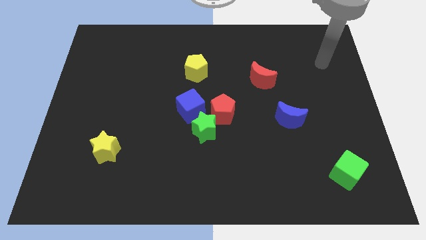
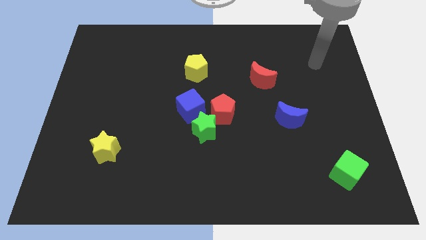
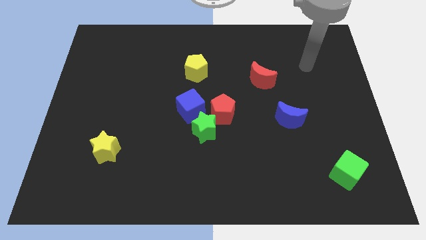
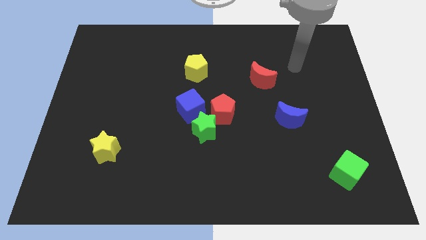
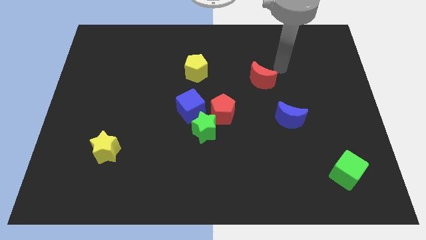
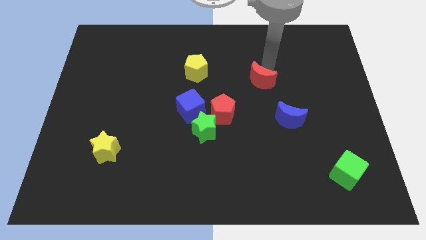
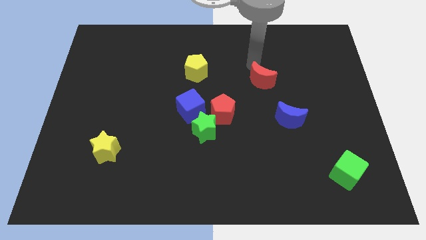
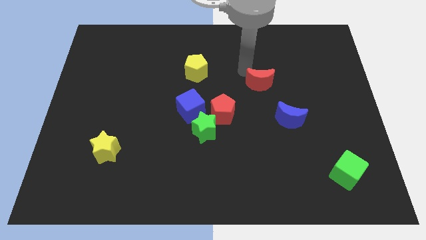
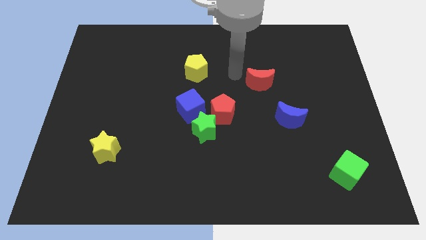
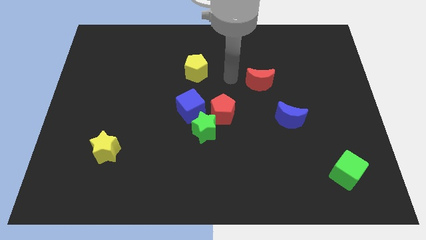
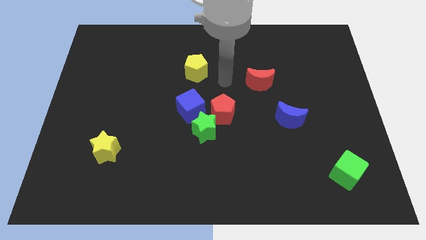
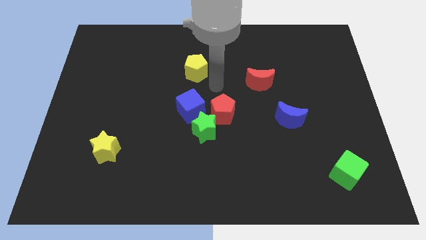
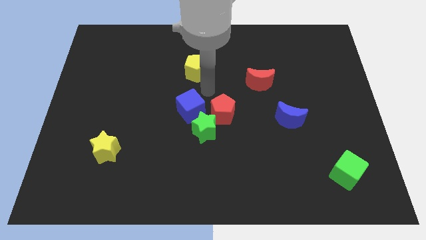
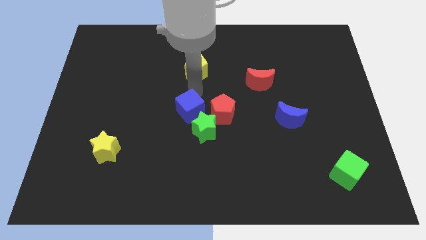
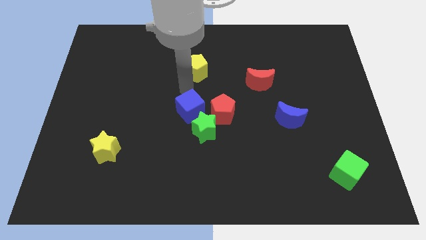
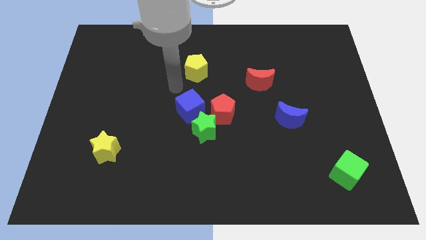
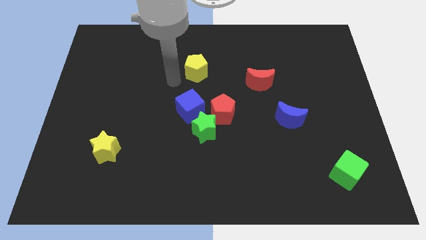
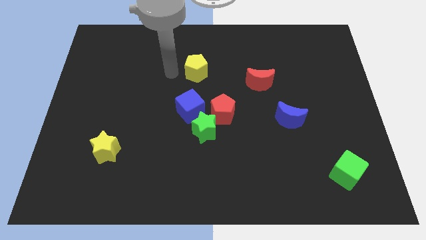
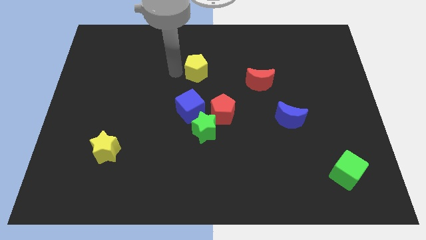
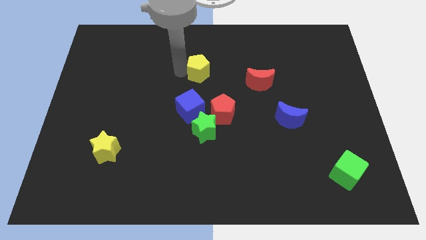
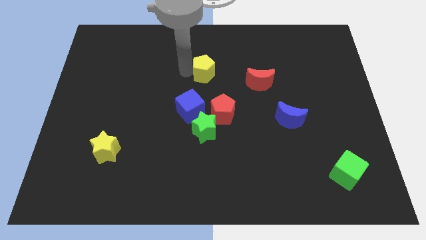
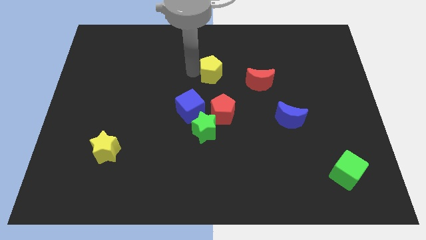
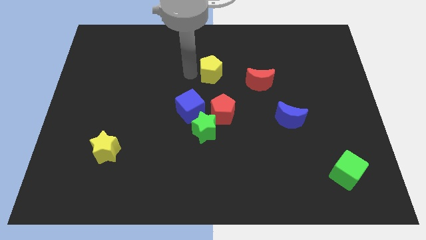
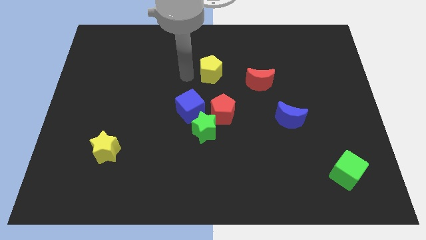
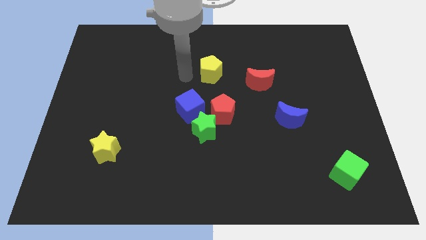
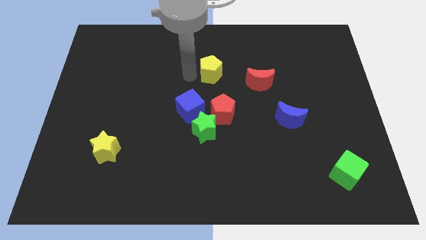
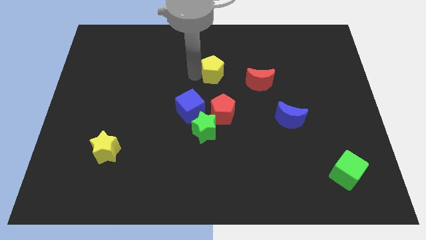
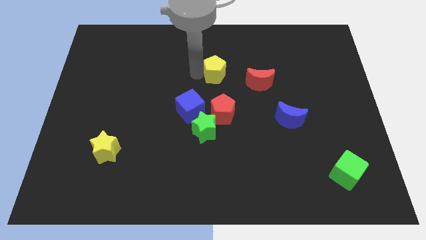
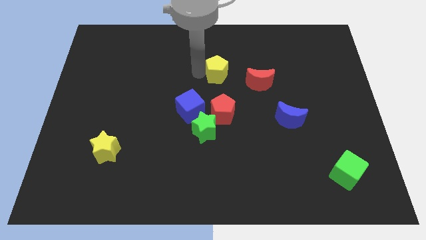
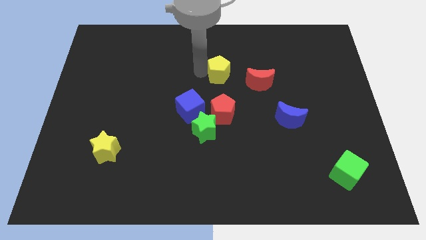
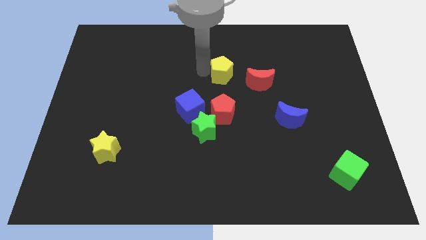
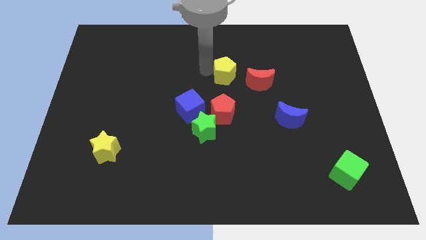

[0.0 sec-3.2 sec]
move the yellow pentagon to the right a little bit

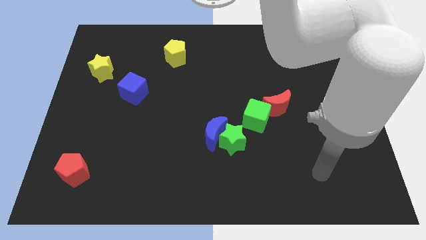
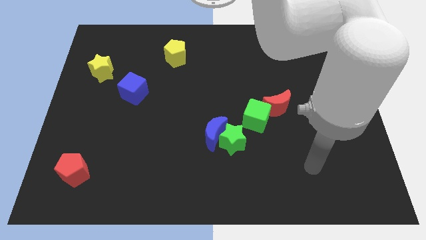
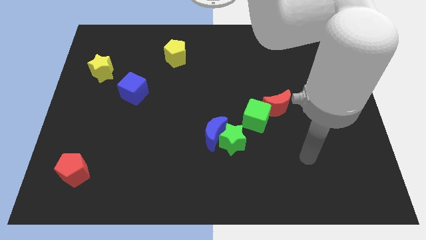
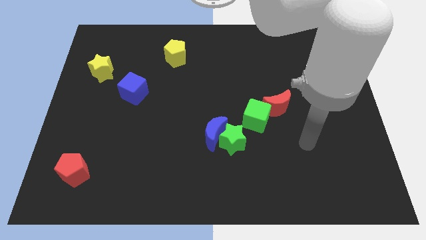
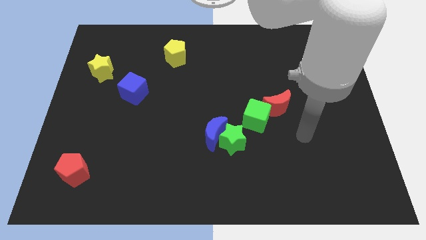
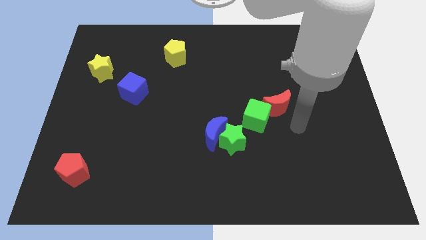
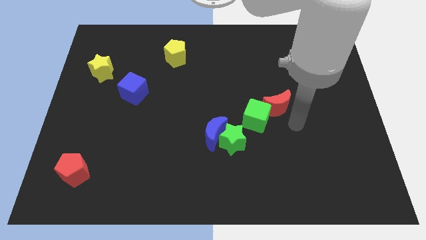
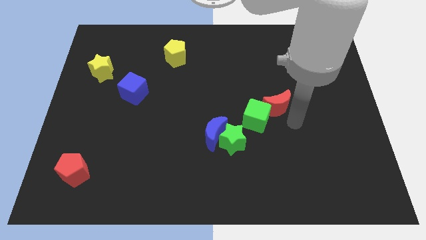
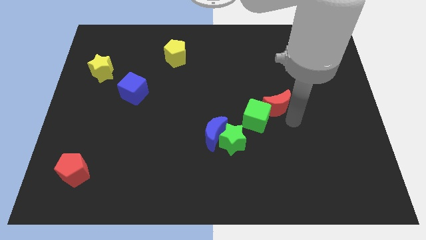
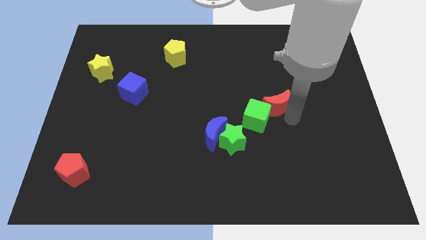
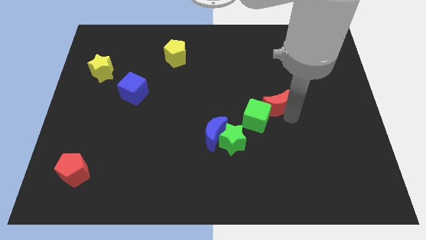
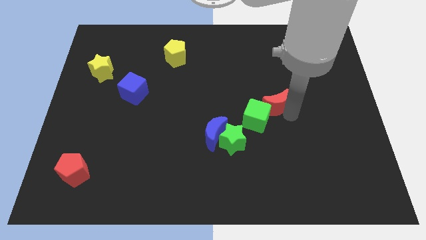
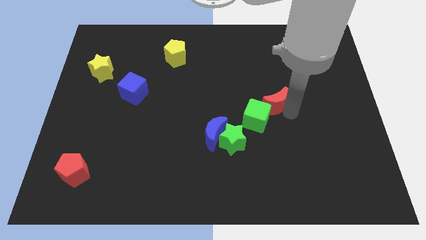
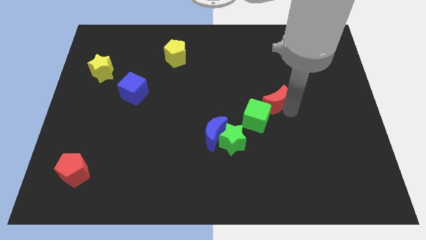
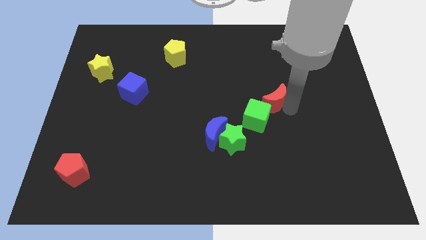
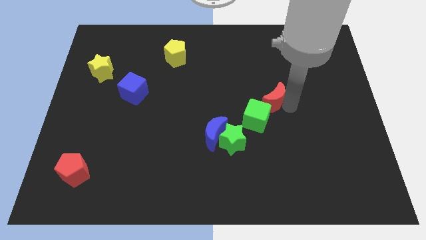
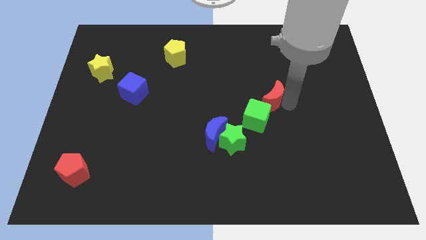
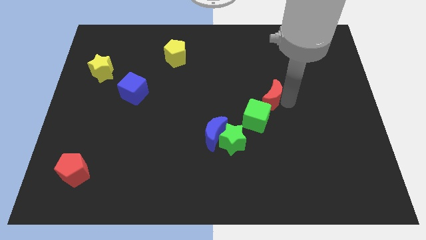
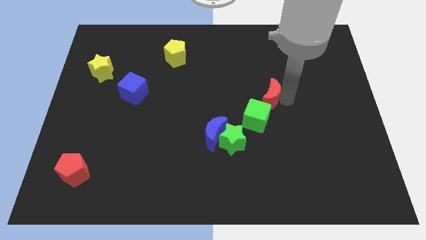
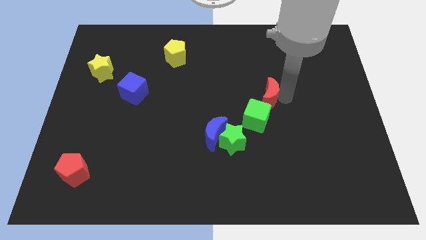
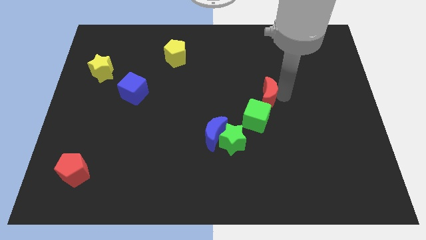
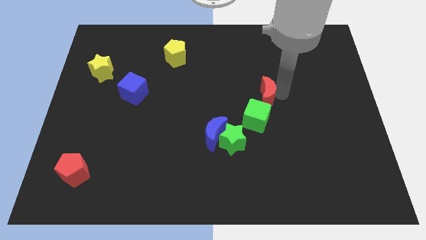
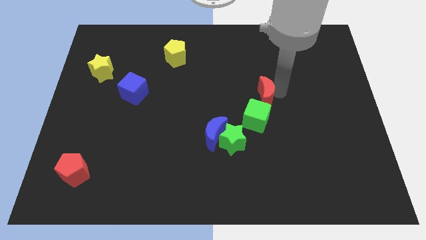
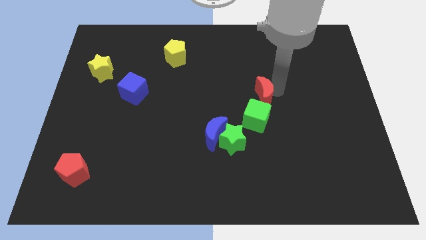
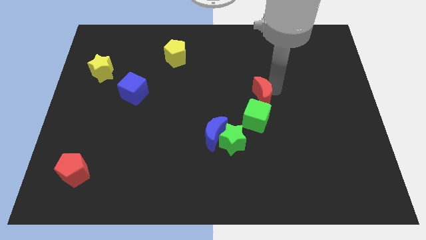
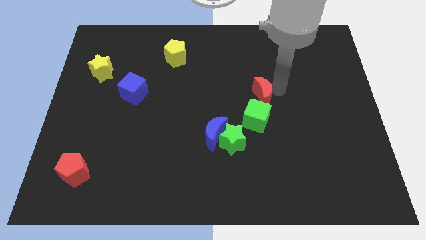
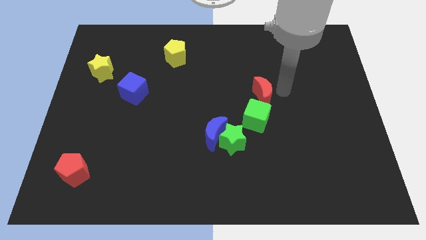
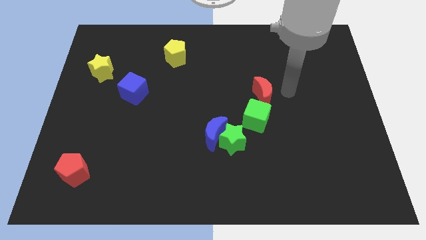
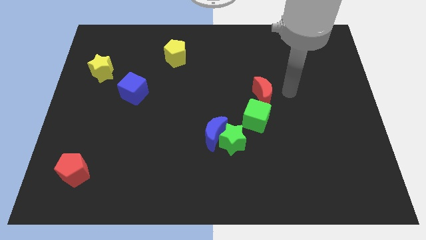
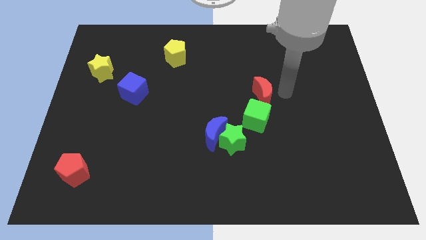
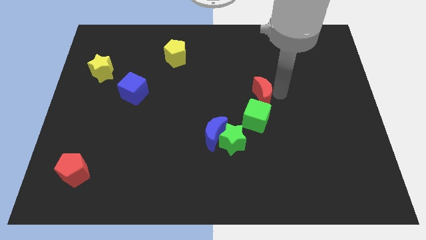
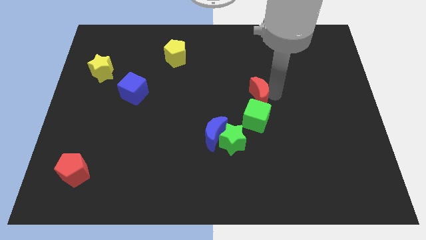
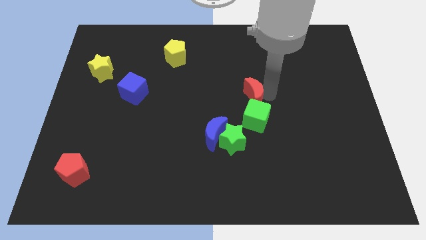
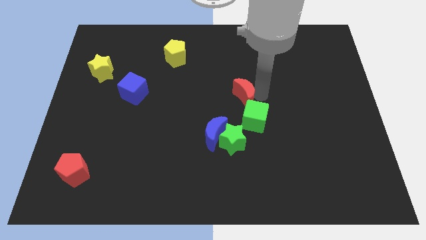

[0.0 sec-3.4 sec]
slide the red moon a little bit left

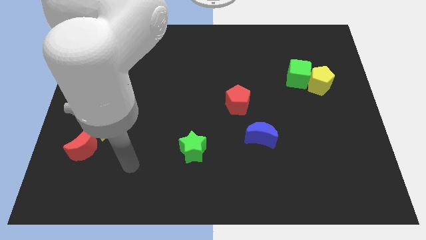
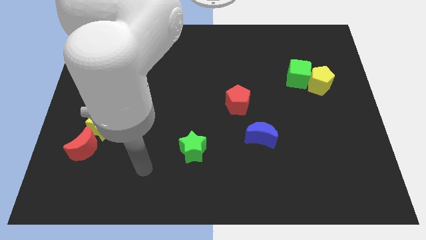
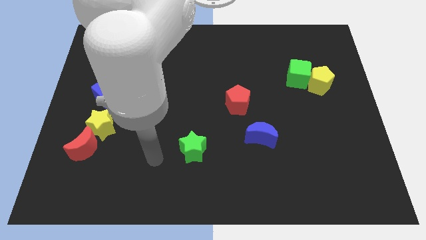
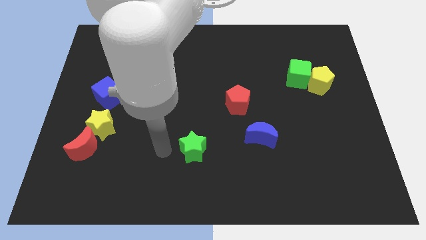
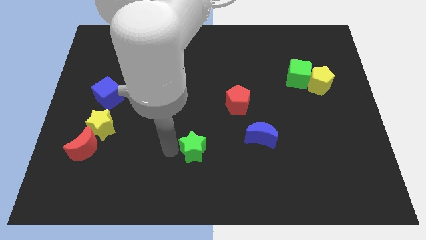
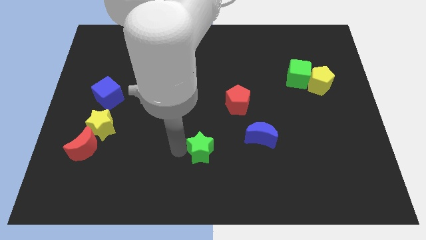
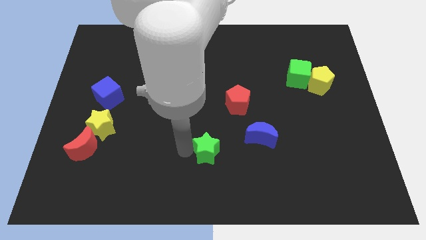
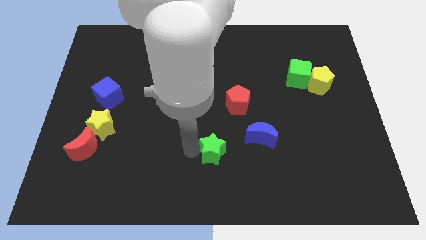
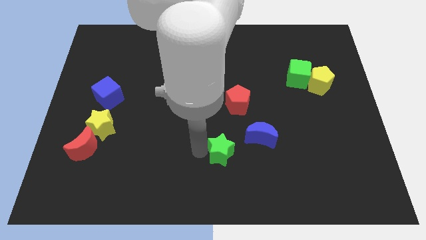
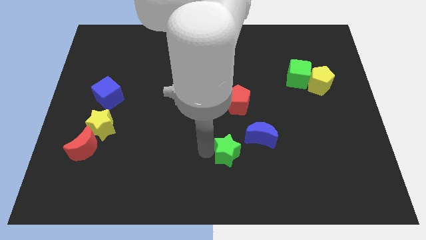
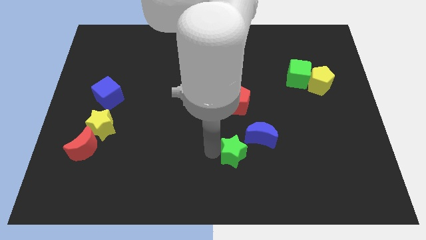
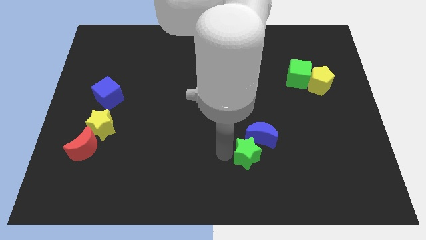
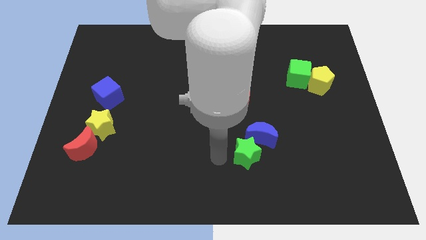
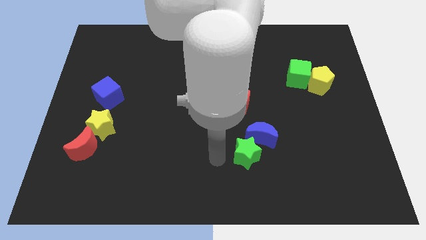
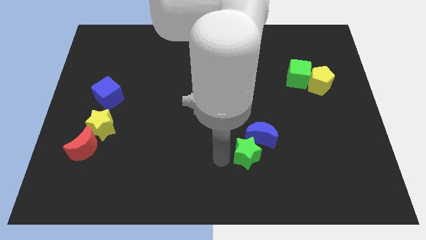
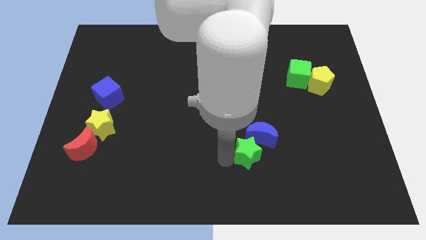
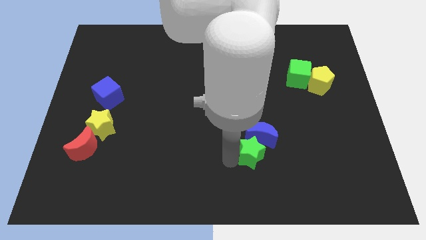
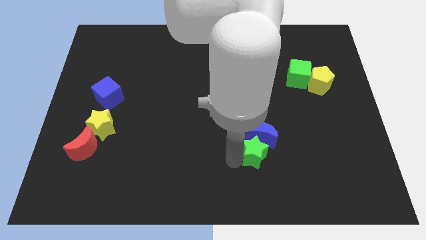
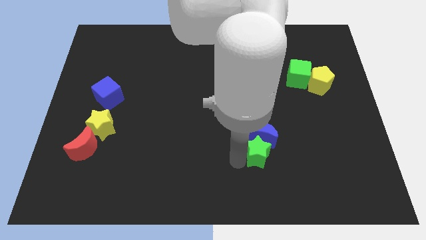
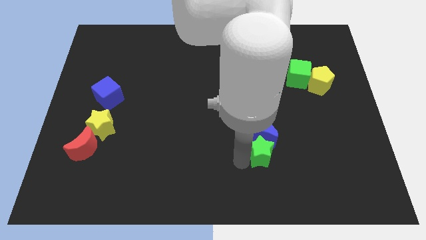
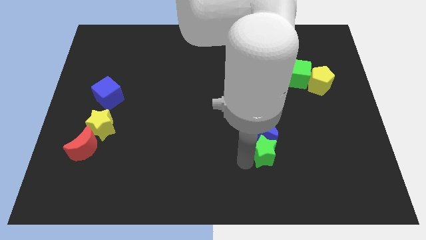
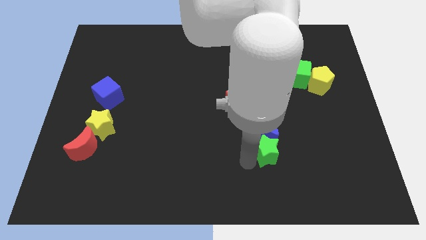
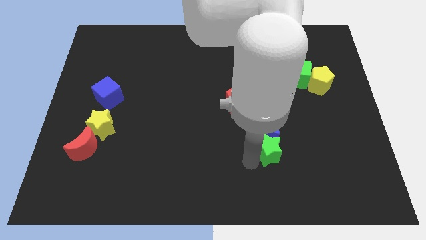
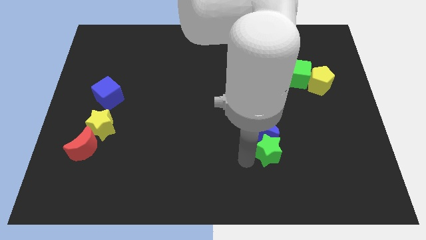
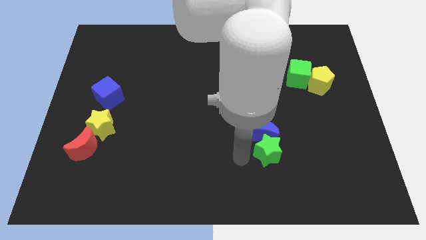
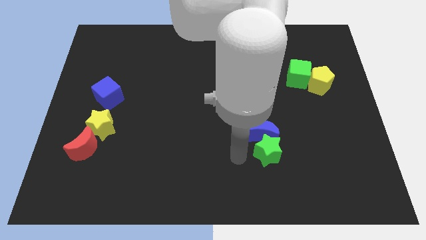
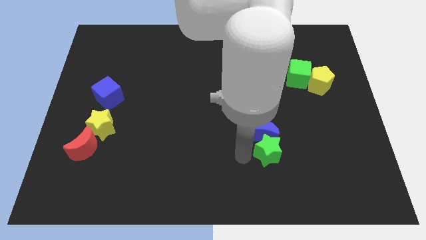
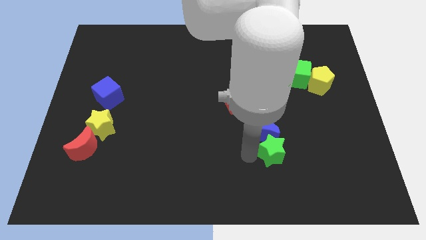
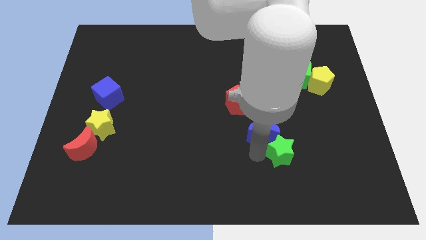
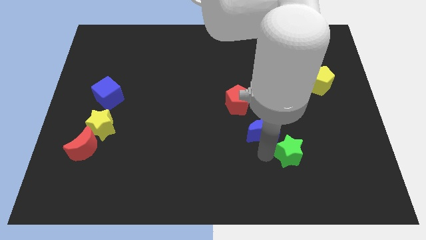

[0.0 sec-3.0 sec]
slide the green star to the right
